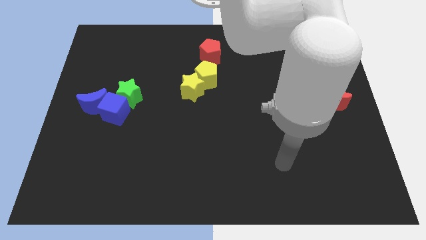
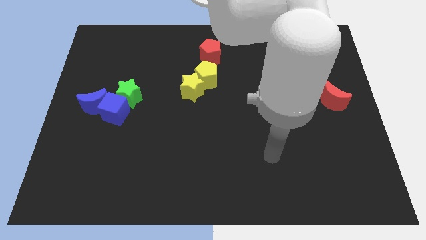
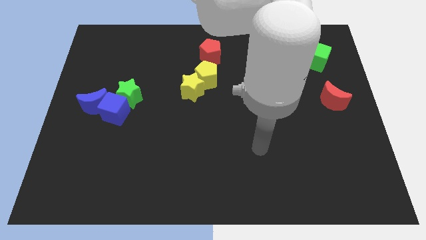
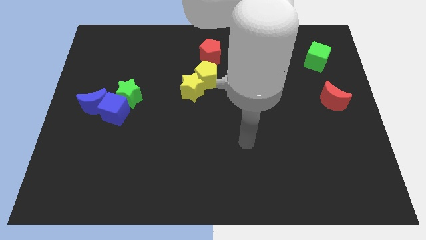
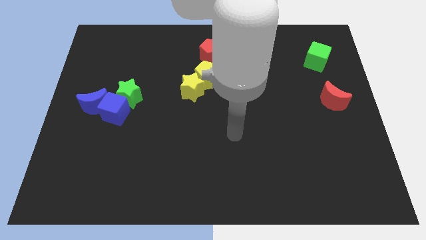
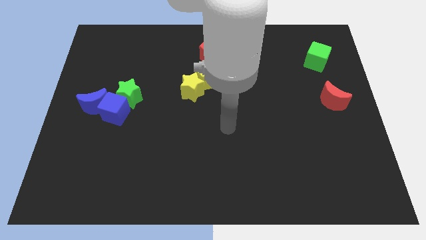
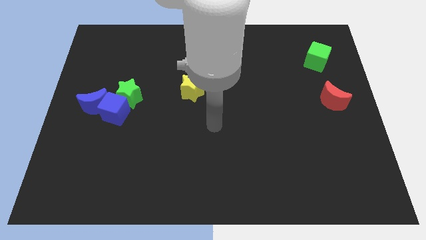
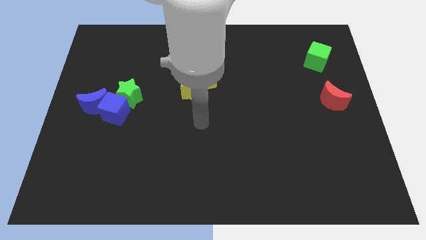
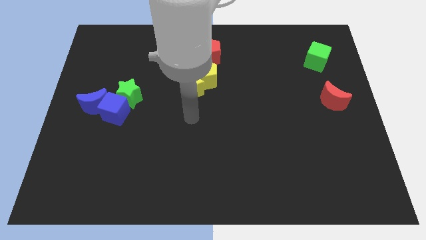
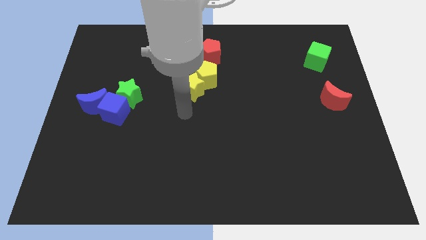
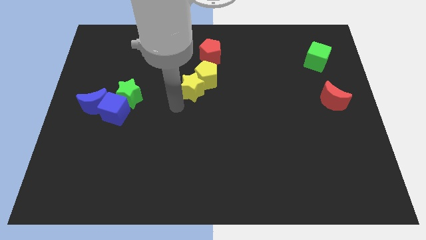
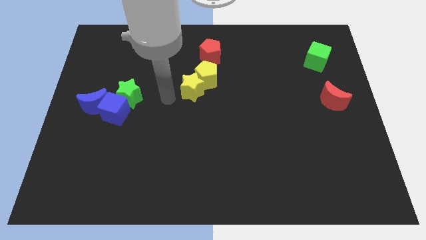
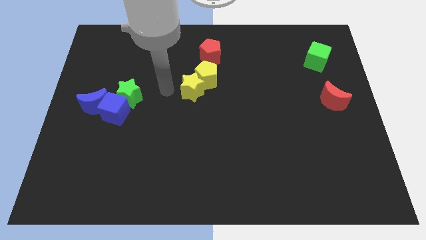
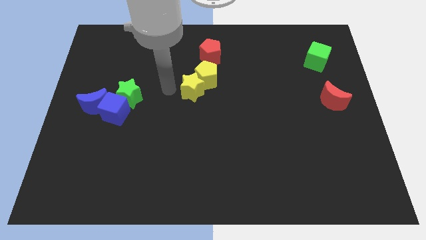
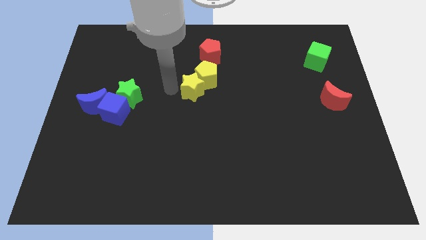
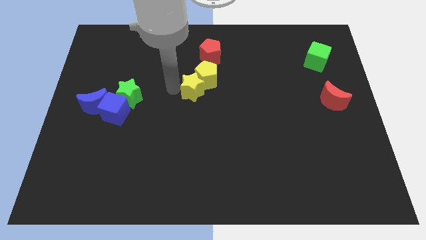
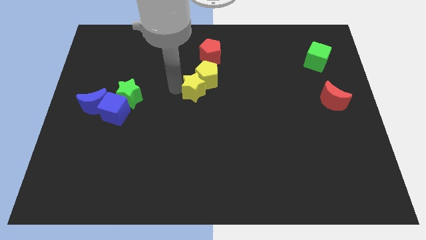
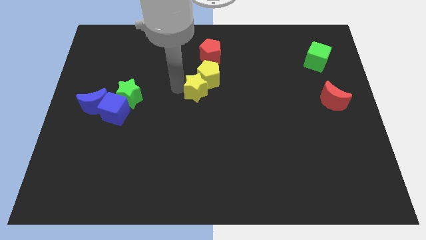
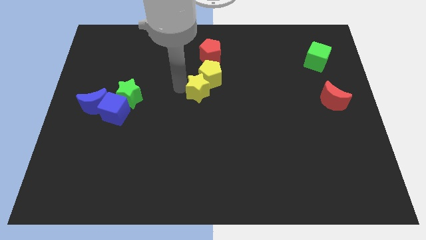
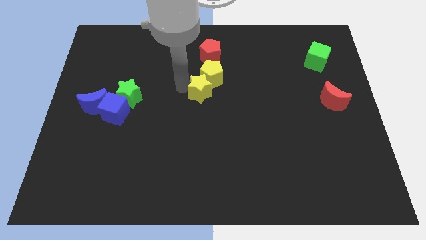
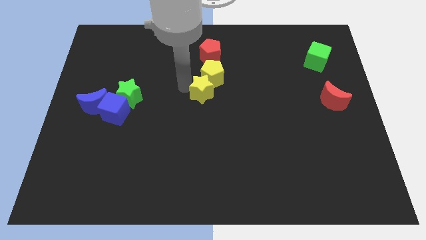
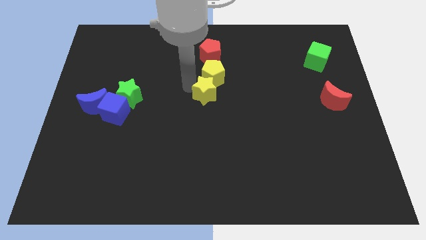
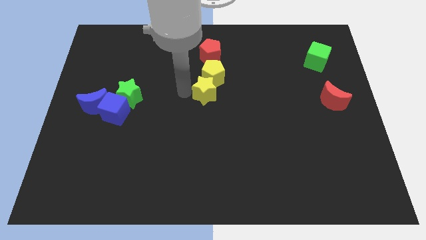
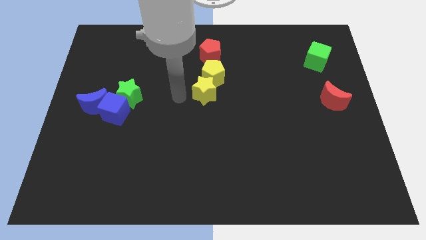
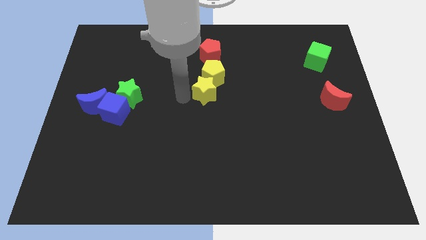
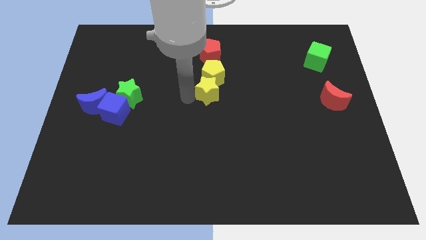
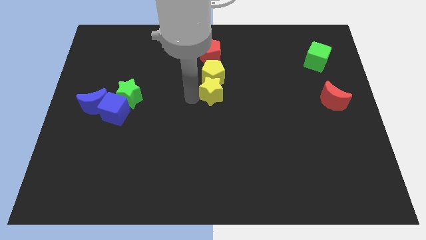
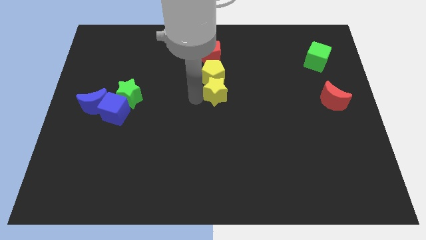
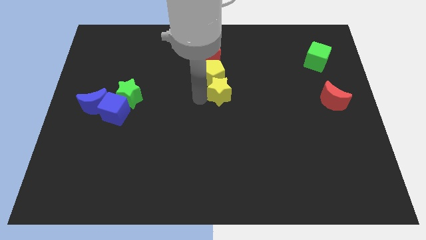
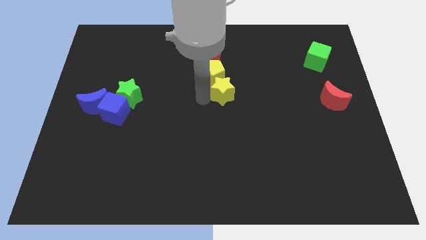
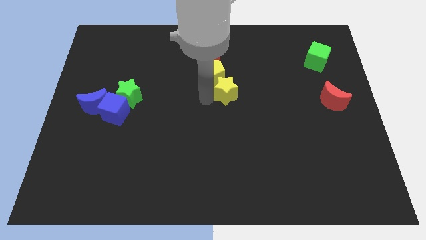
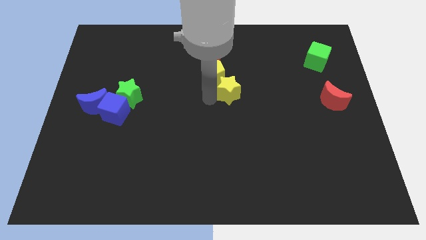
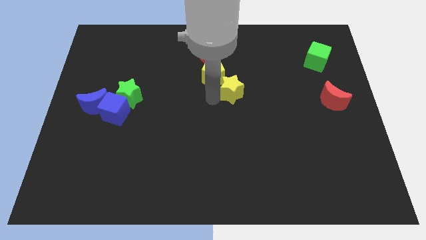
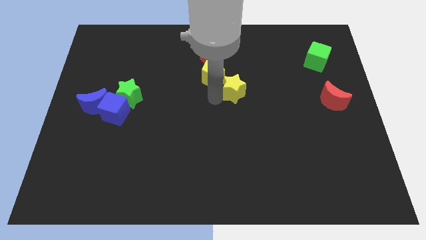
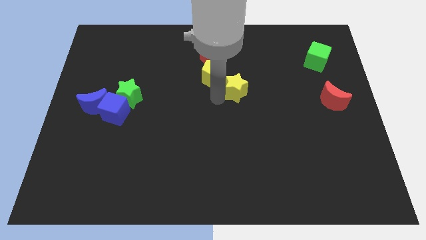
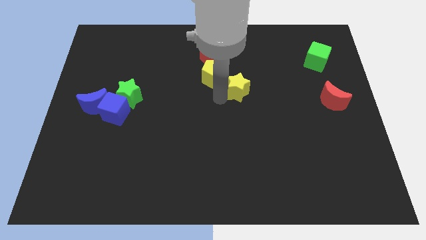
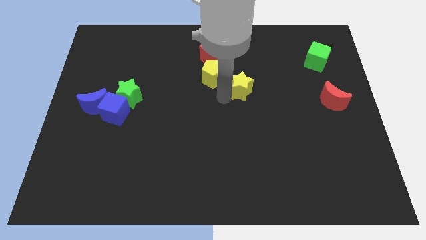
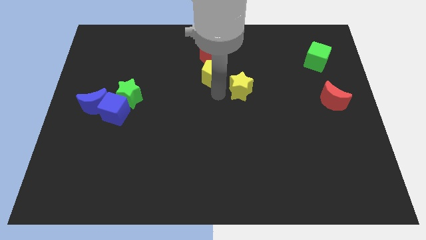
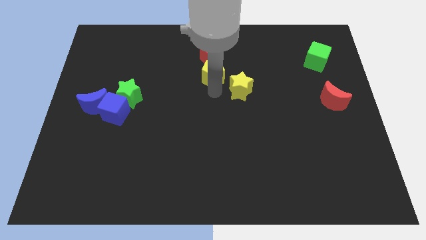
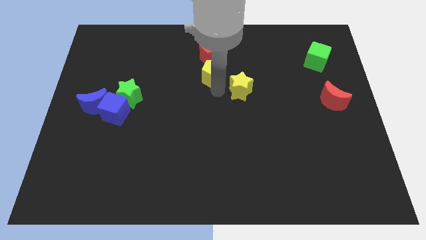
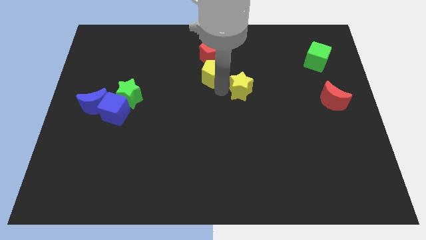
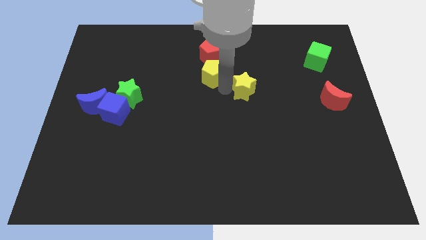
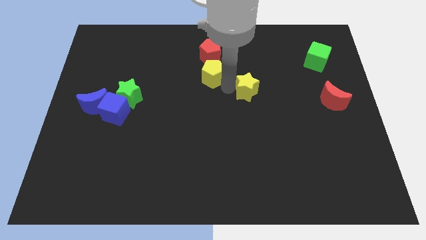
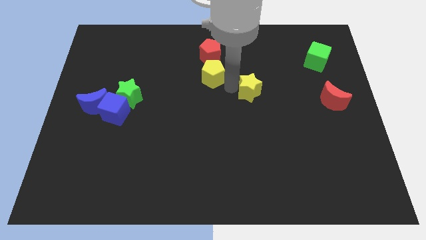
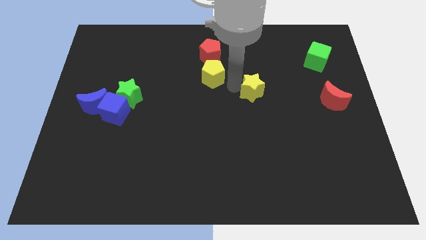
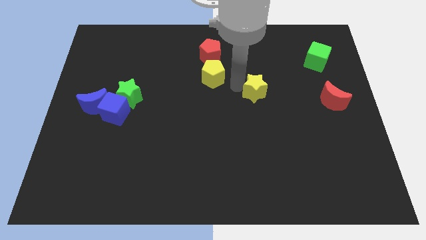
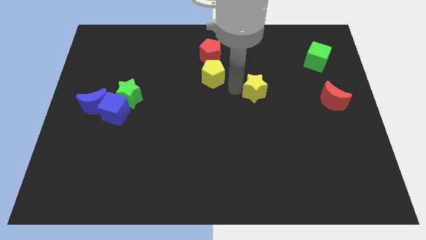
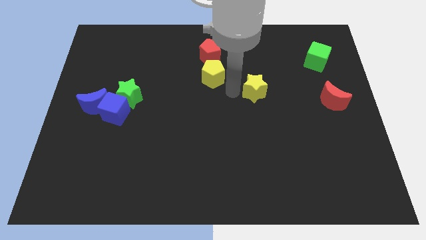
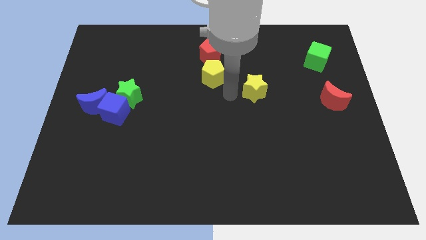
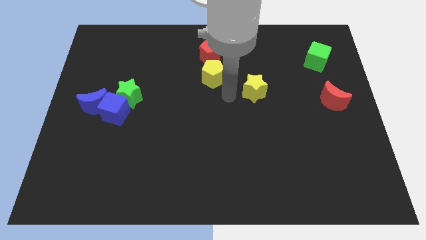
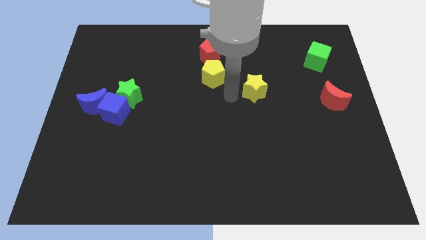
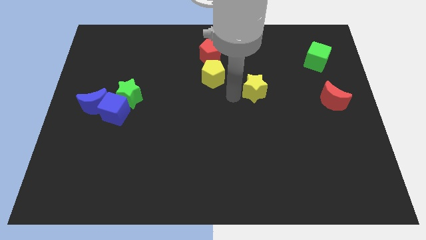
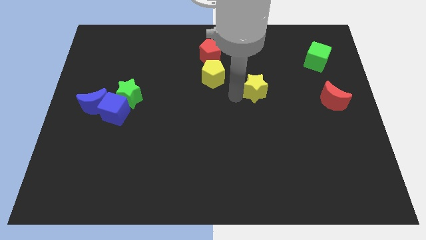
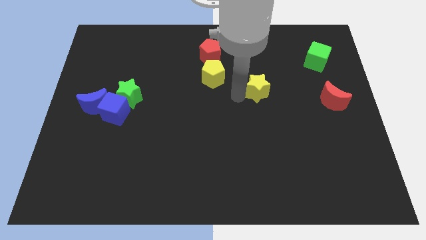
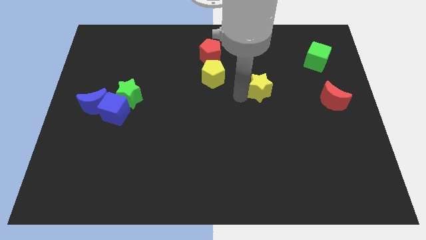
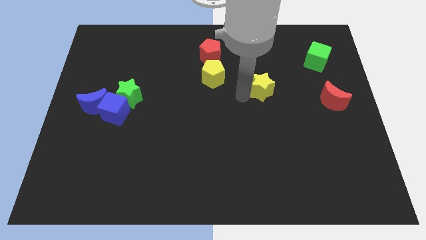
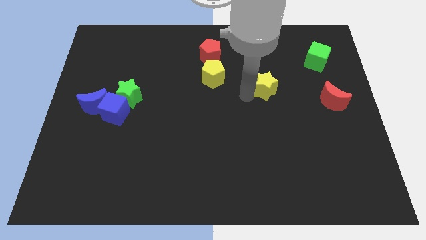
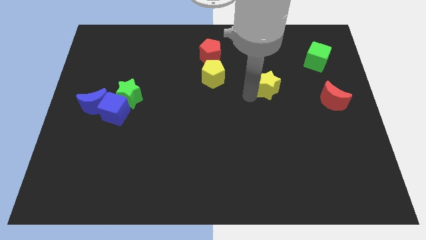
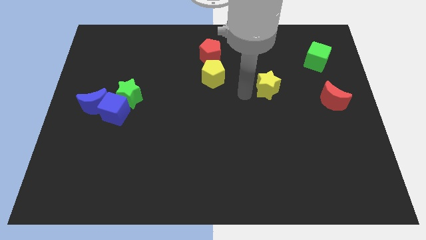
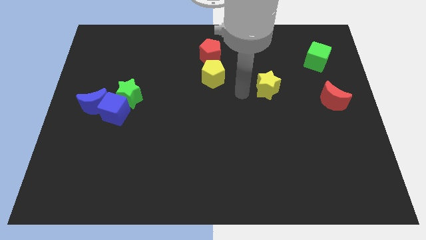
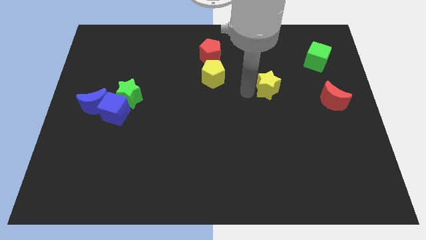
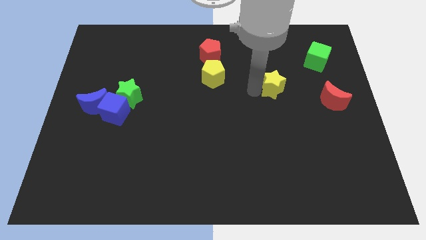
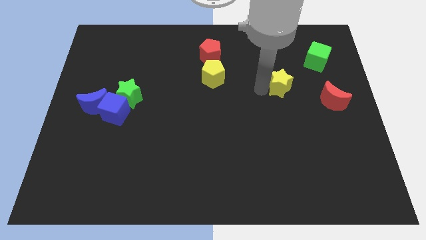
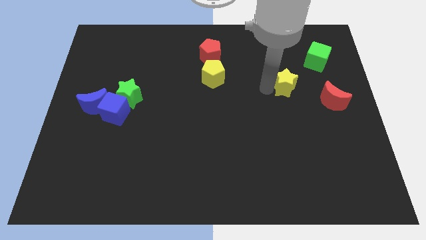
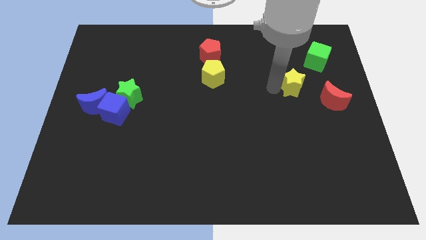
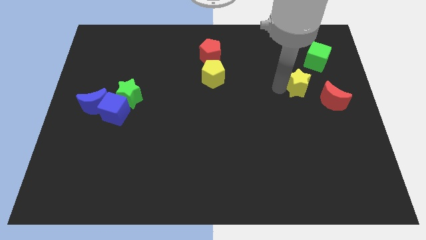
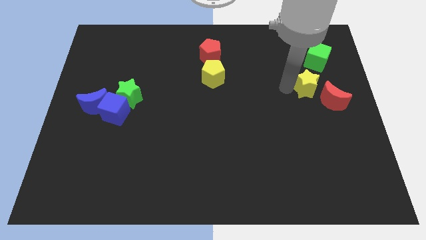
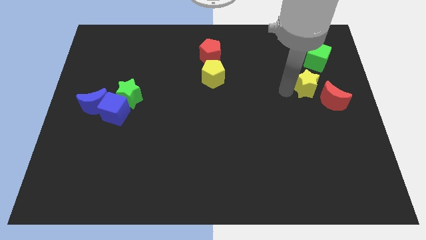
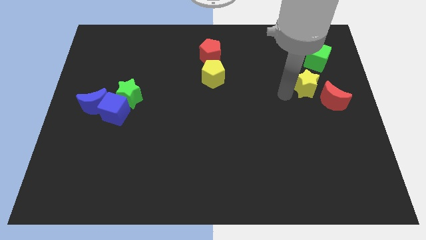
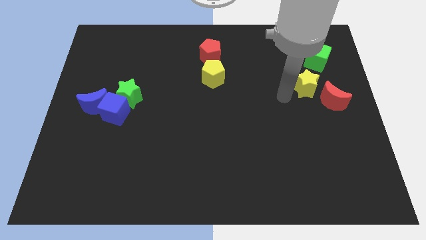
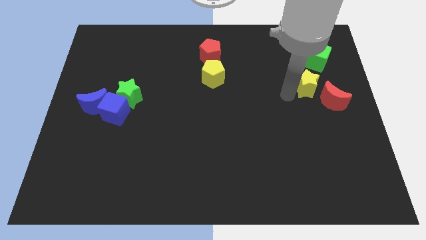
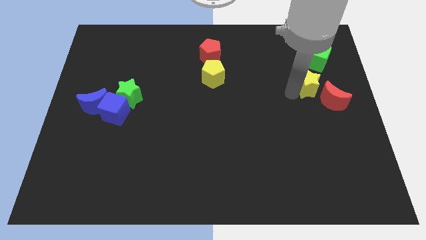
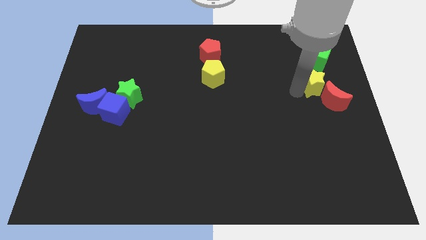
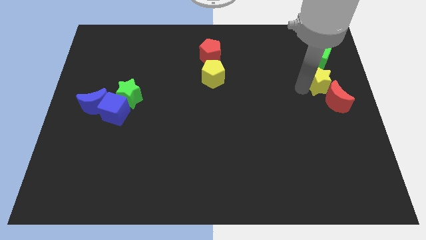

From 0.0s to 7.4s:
push the yellow star to the center right
